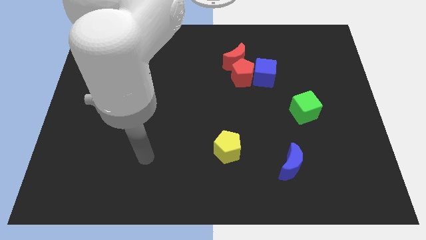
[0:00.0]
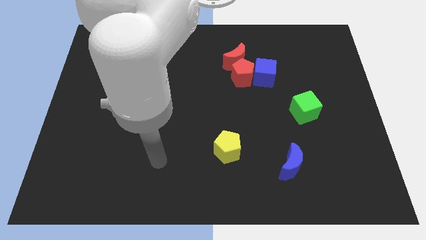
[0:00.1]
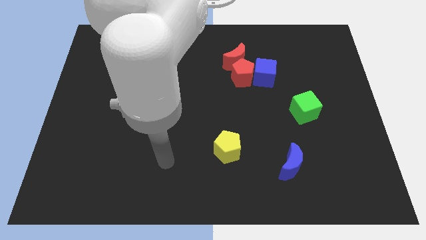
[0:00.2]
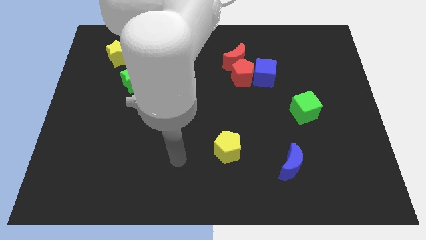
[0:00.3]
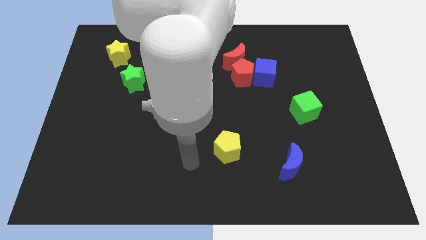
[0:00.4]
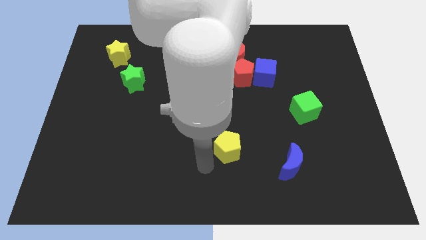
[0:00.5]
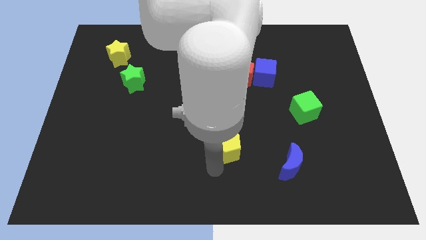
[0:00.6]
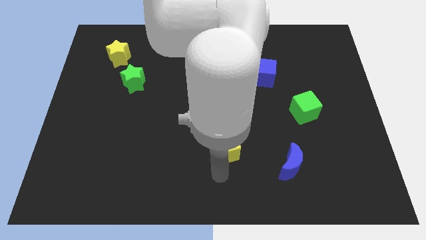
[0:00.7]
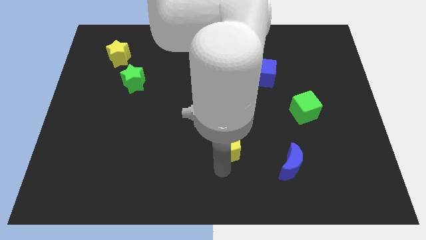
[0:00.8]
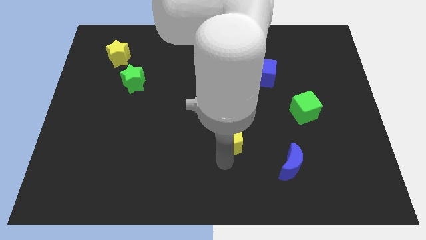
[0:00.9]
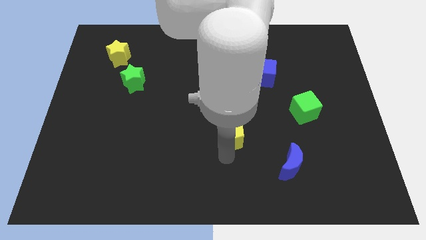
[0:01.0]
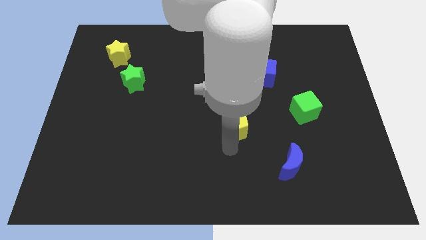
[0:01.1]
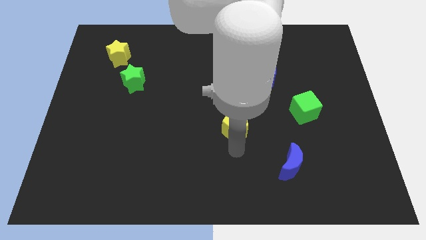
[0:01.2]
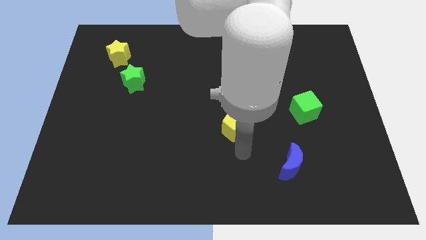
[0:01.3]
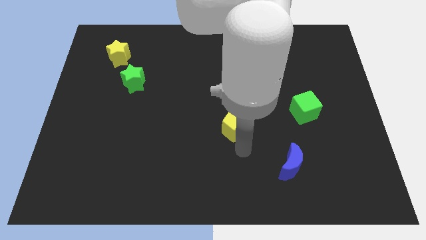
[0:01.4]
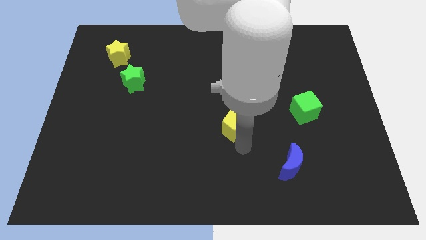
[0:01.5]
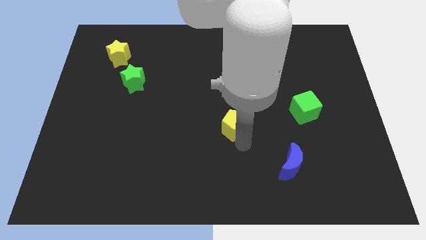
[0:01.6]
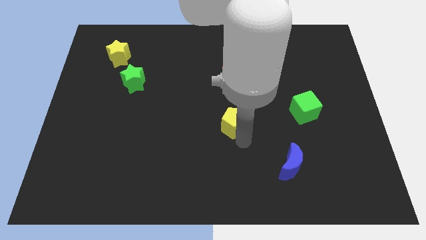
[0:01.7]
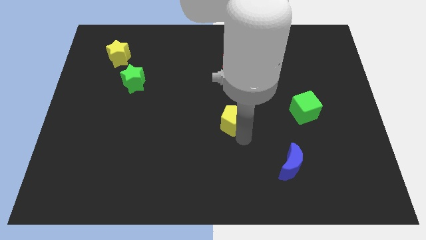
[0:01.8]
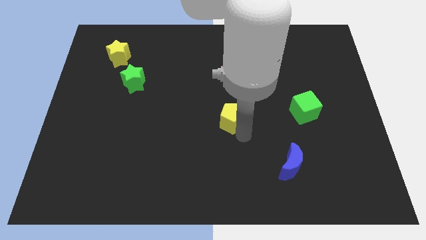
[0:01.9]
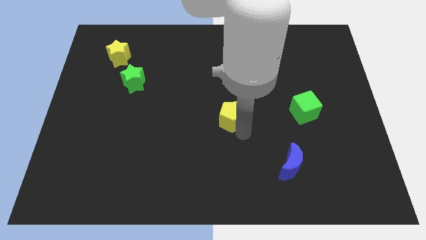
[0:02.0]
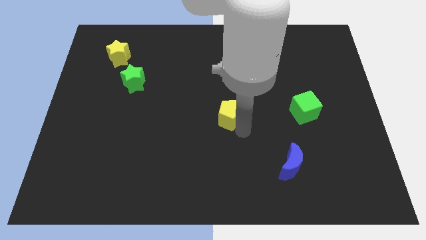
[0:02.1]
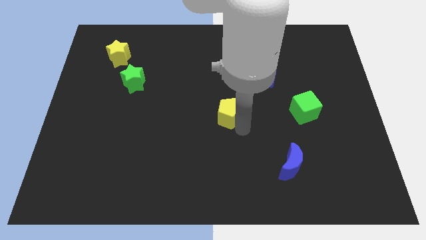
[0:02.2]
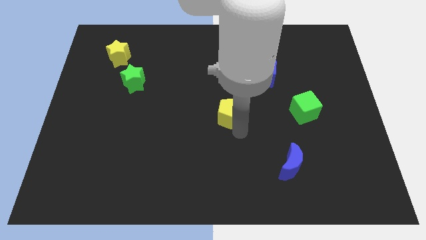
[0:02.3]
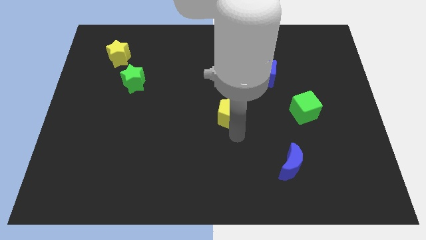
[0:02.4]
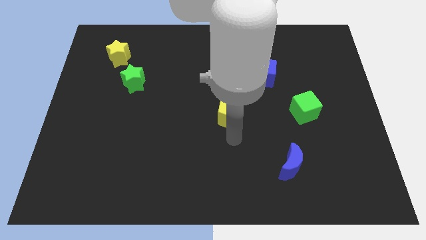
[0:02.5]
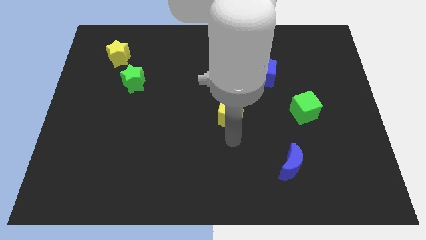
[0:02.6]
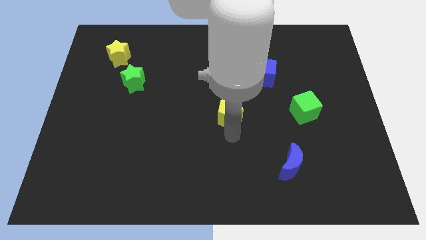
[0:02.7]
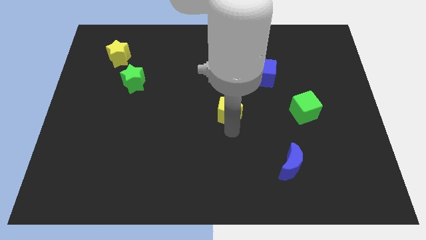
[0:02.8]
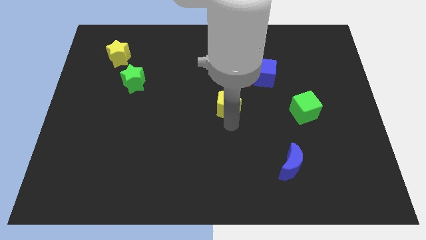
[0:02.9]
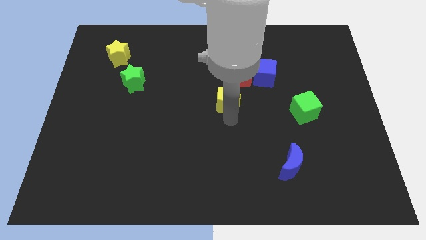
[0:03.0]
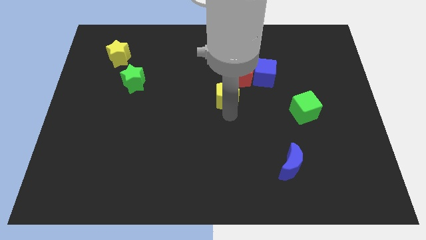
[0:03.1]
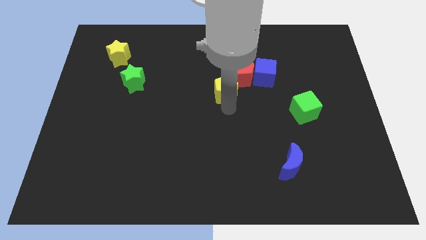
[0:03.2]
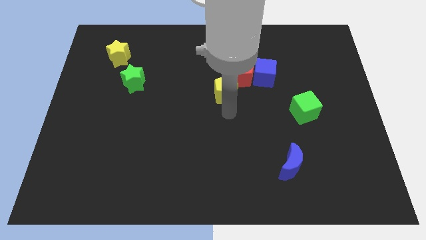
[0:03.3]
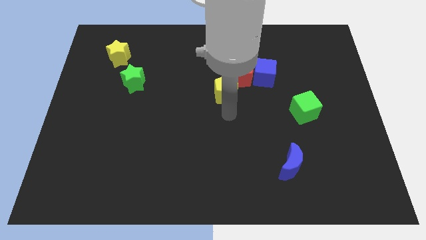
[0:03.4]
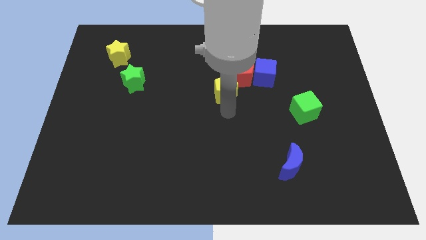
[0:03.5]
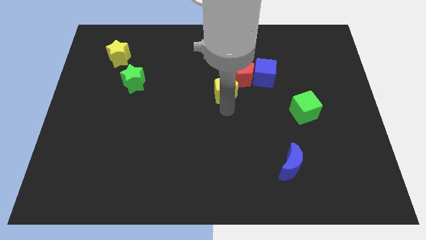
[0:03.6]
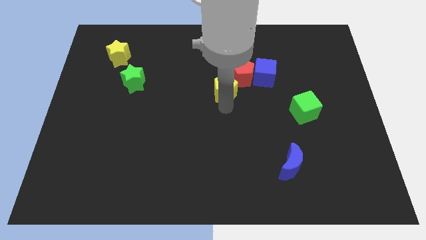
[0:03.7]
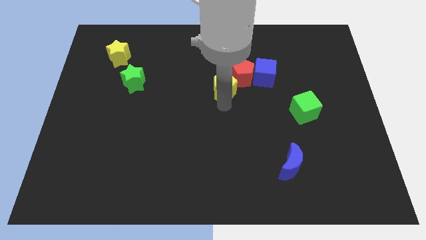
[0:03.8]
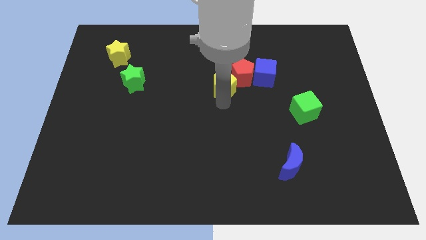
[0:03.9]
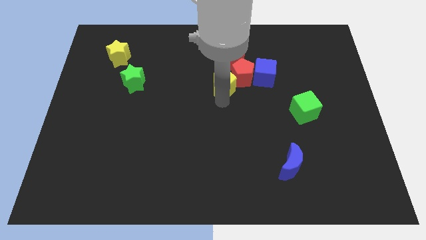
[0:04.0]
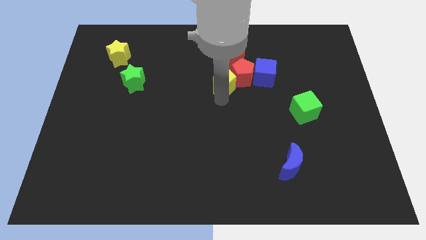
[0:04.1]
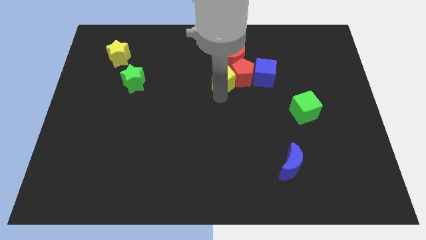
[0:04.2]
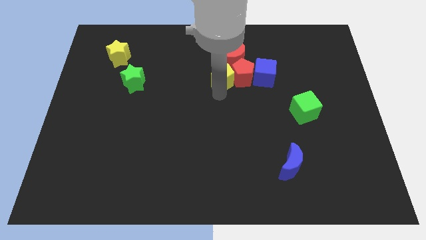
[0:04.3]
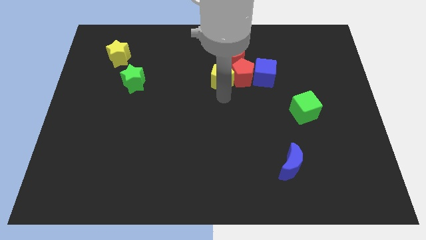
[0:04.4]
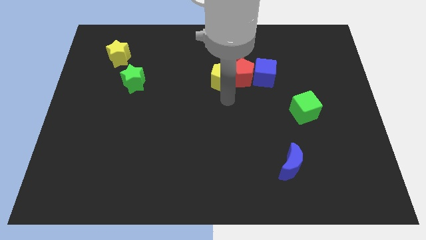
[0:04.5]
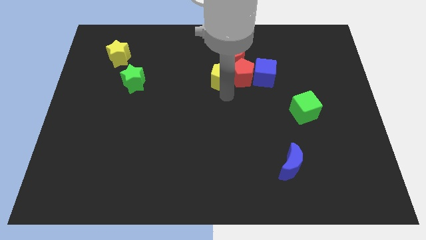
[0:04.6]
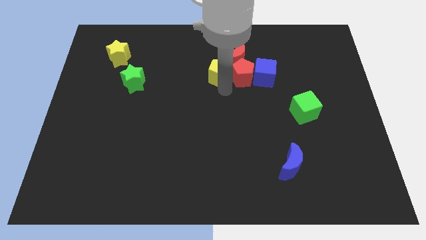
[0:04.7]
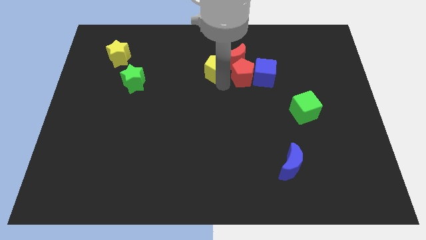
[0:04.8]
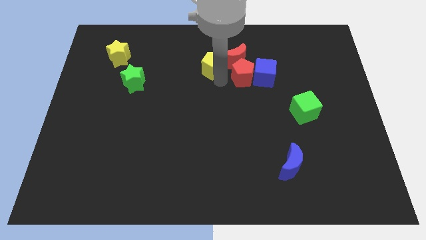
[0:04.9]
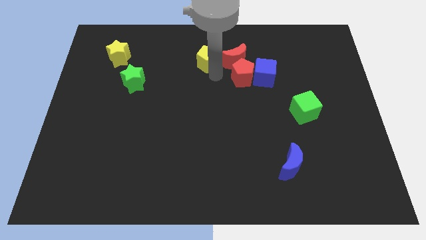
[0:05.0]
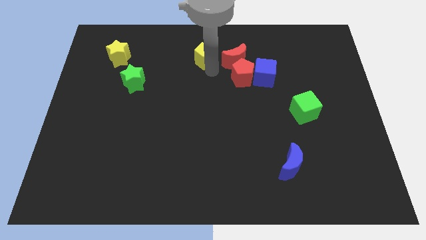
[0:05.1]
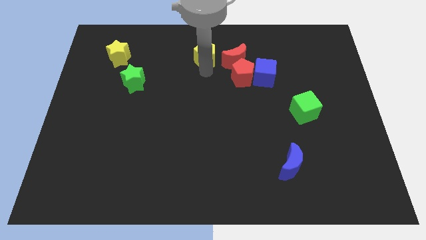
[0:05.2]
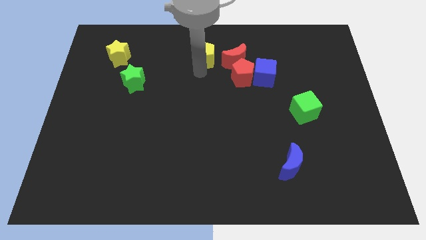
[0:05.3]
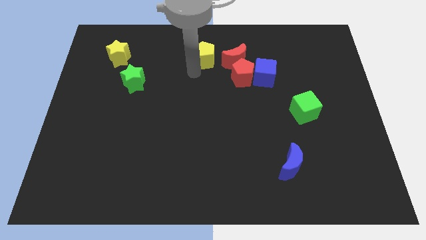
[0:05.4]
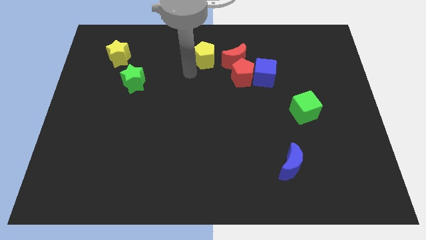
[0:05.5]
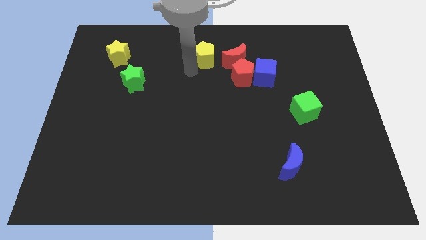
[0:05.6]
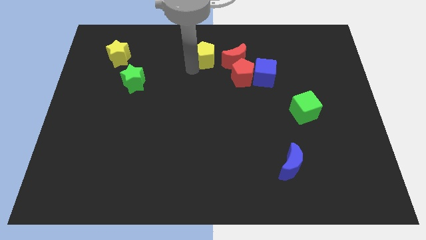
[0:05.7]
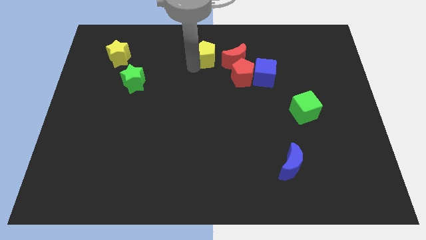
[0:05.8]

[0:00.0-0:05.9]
push the yellow pentagon to the top
